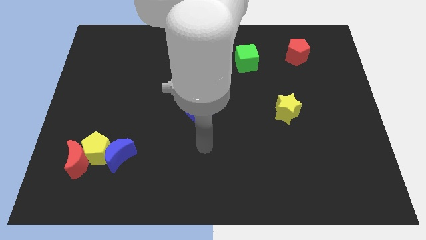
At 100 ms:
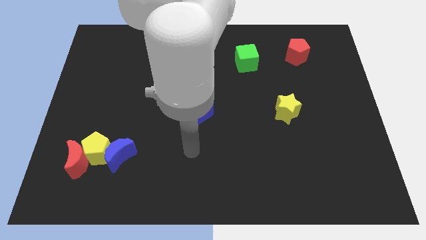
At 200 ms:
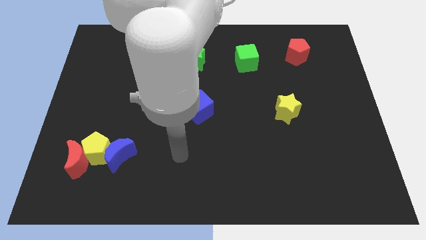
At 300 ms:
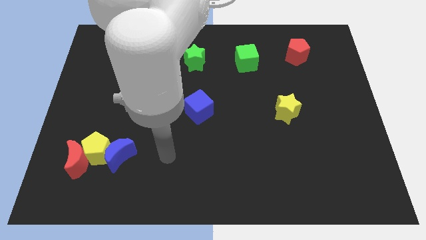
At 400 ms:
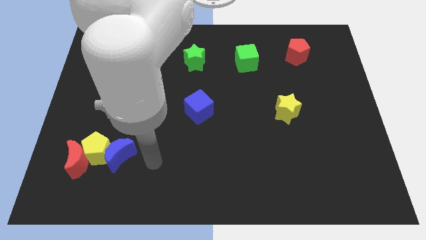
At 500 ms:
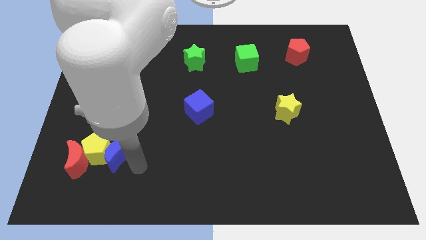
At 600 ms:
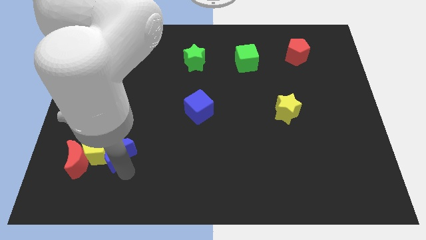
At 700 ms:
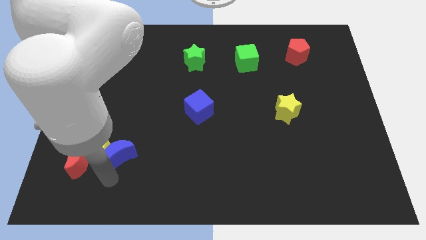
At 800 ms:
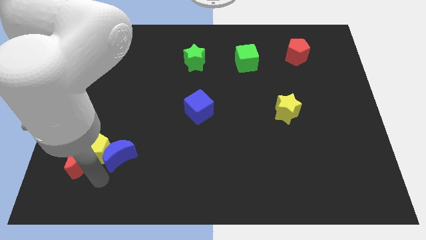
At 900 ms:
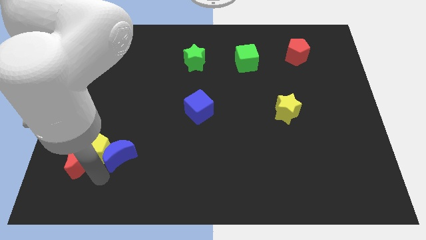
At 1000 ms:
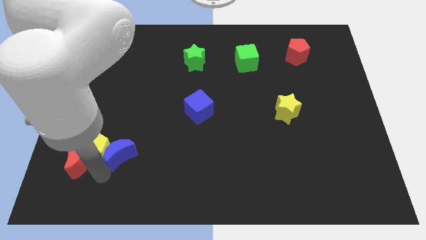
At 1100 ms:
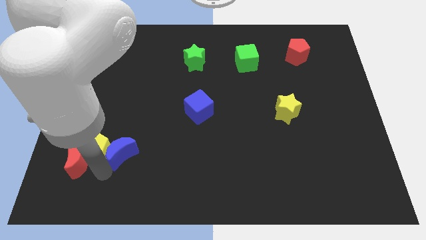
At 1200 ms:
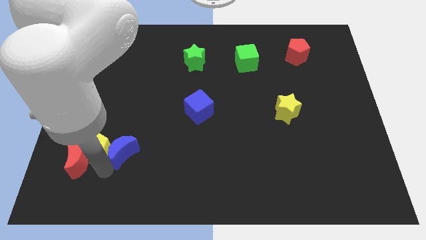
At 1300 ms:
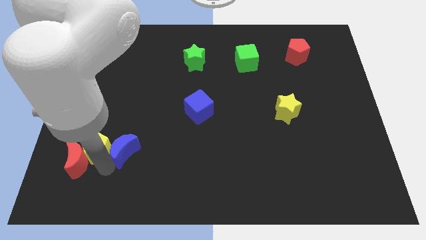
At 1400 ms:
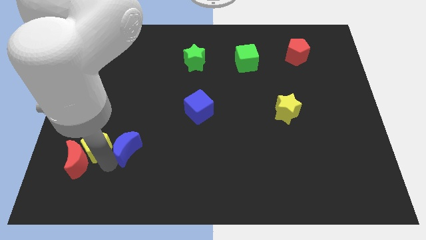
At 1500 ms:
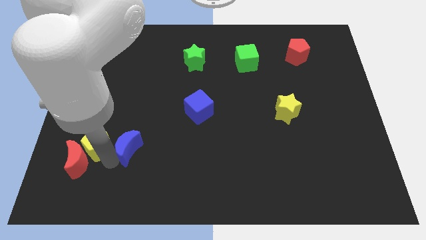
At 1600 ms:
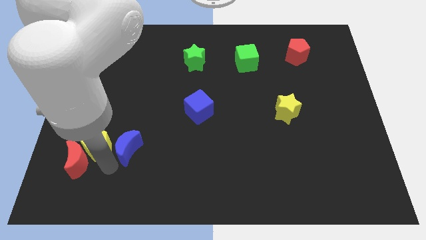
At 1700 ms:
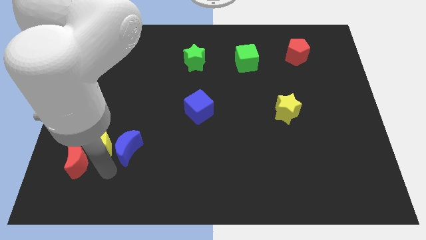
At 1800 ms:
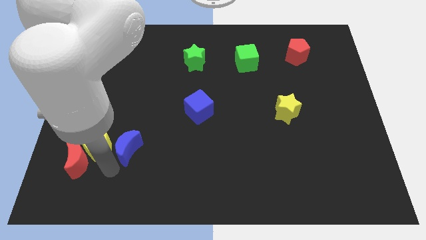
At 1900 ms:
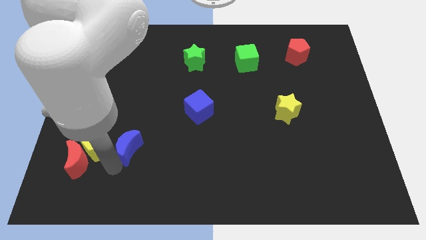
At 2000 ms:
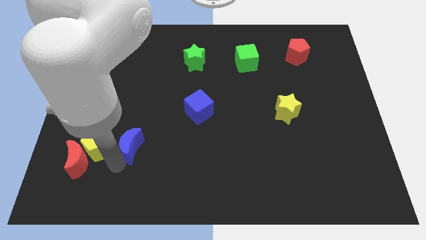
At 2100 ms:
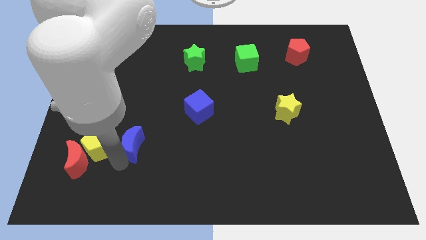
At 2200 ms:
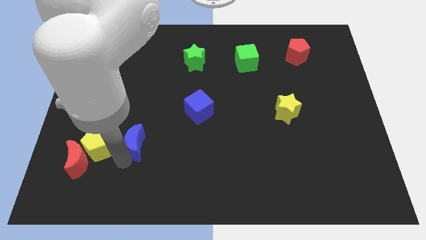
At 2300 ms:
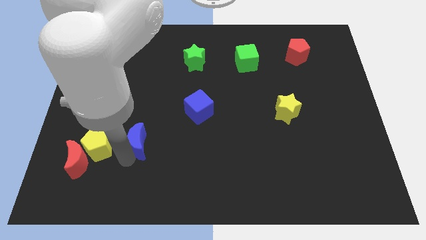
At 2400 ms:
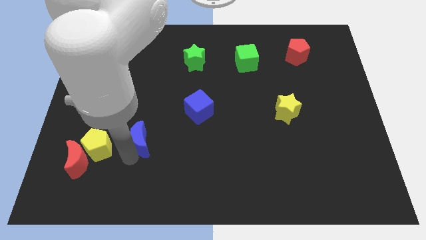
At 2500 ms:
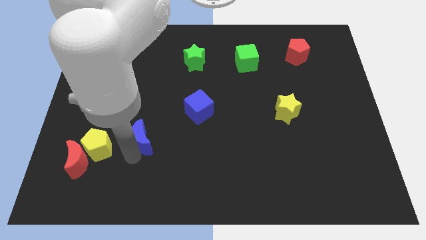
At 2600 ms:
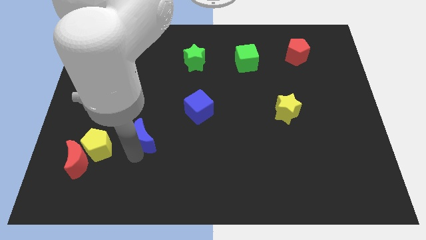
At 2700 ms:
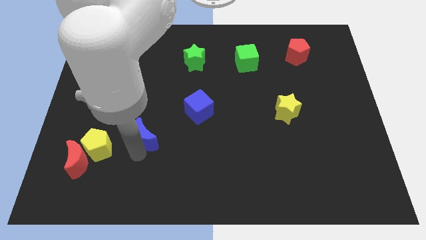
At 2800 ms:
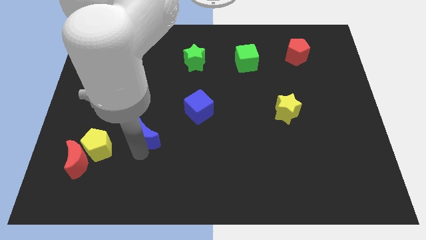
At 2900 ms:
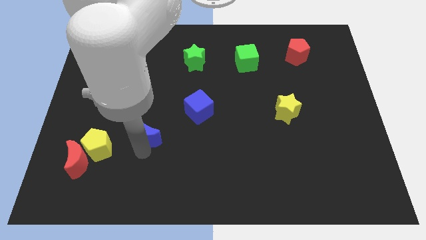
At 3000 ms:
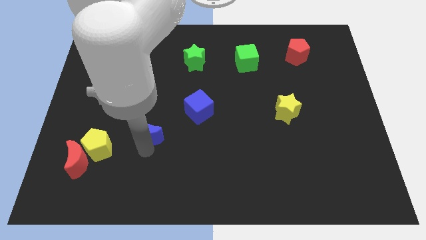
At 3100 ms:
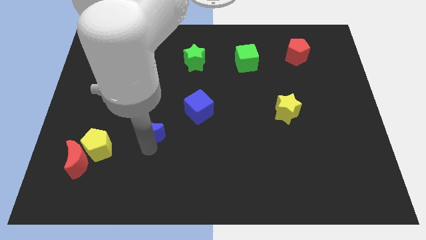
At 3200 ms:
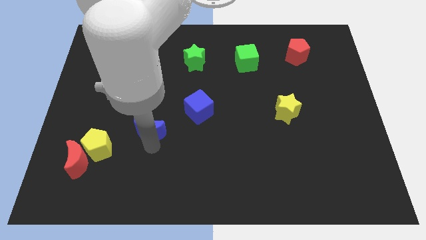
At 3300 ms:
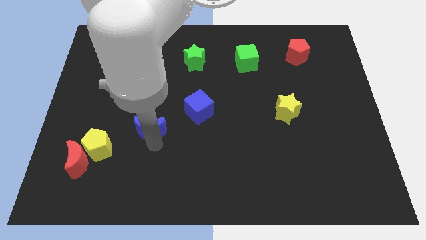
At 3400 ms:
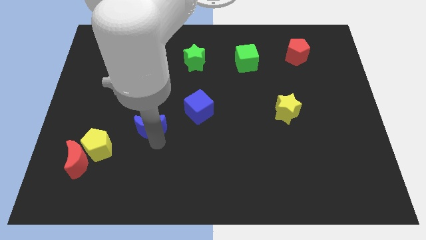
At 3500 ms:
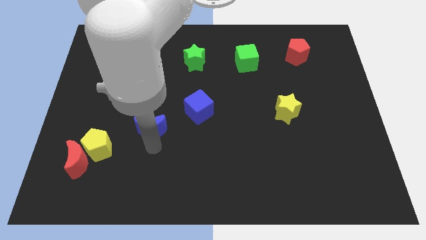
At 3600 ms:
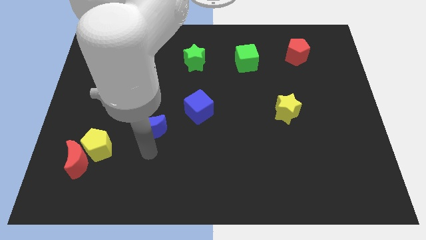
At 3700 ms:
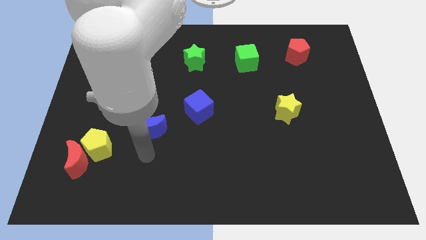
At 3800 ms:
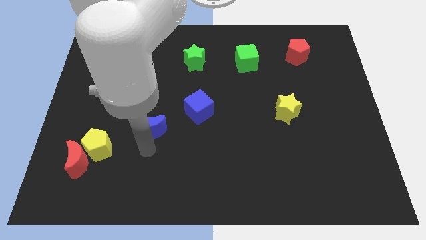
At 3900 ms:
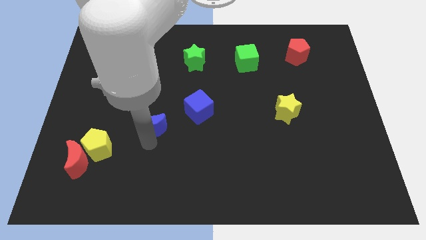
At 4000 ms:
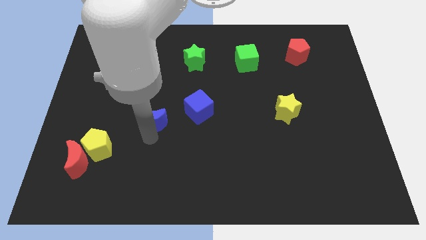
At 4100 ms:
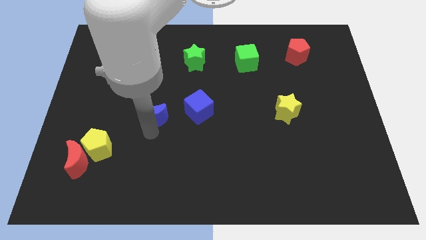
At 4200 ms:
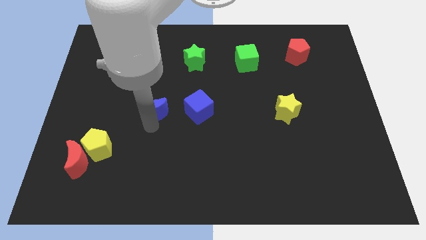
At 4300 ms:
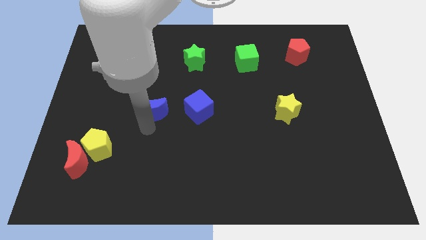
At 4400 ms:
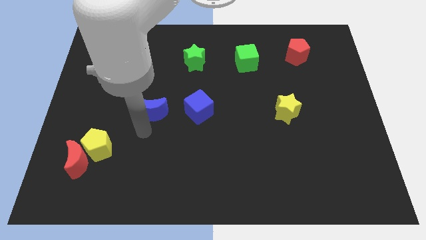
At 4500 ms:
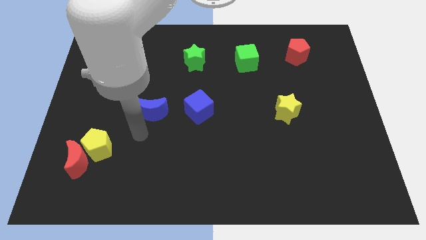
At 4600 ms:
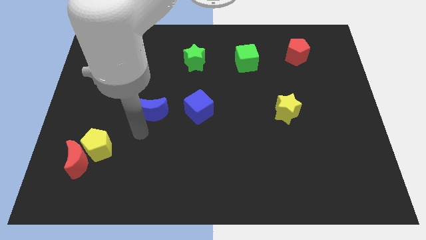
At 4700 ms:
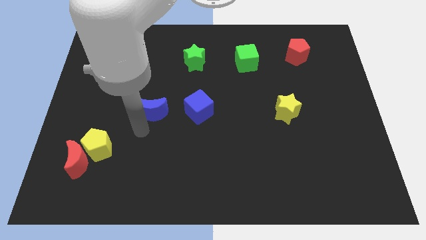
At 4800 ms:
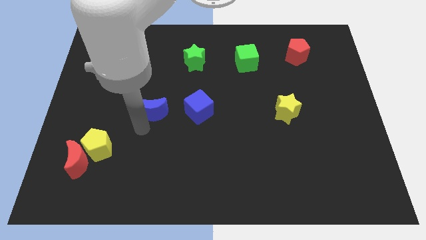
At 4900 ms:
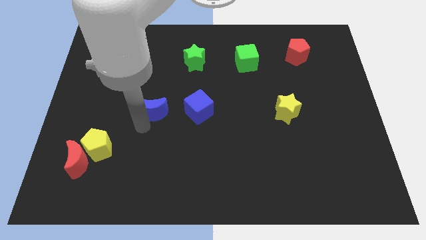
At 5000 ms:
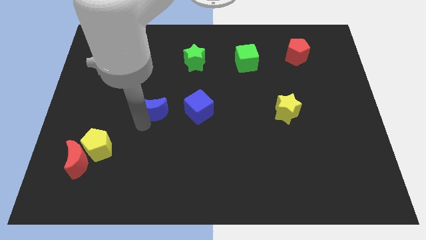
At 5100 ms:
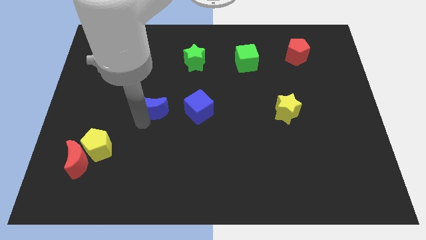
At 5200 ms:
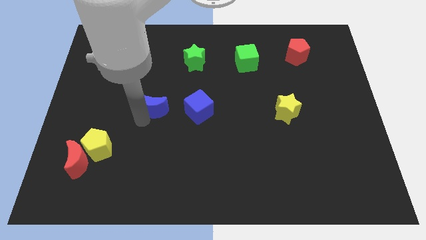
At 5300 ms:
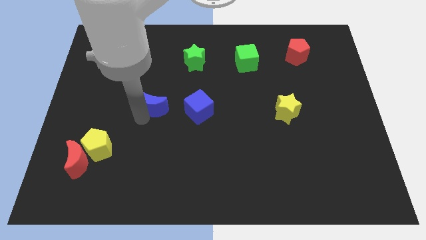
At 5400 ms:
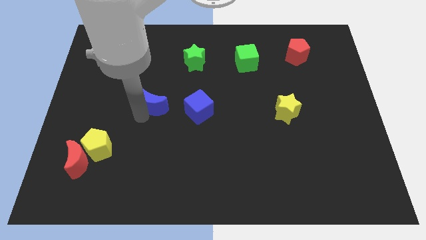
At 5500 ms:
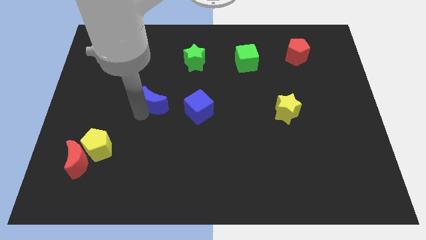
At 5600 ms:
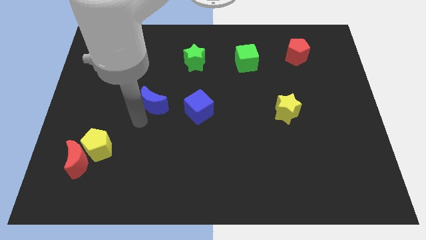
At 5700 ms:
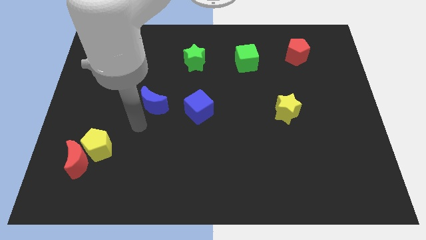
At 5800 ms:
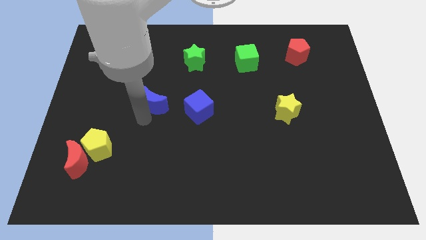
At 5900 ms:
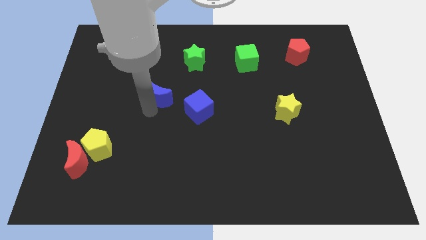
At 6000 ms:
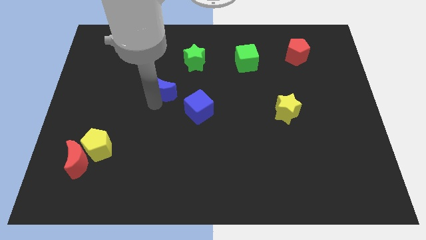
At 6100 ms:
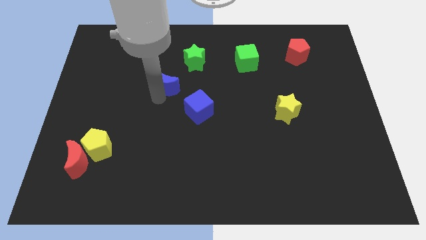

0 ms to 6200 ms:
push the blue moon diagonally down and to the left of the green star

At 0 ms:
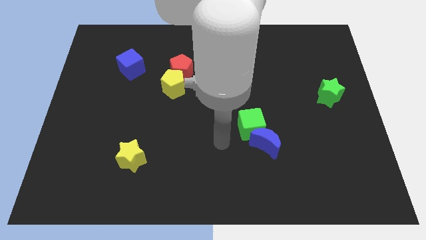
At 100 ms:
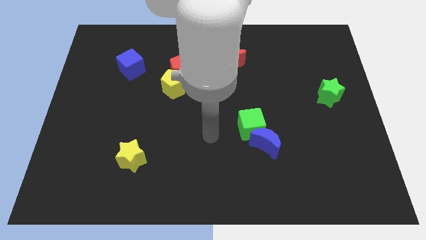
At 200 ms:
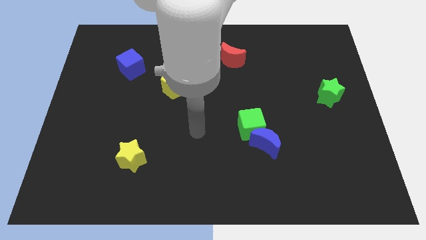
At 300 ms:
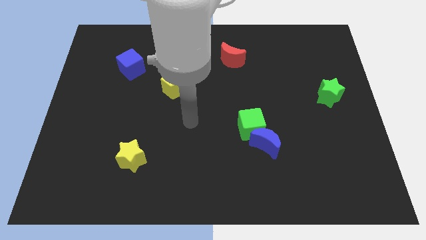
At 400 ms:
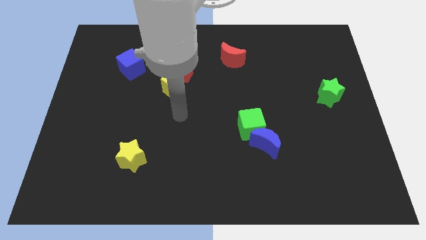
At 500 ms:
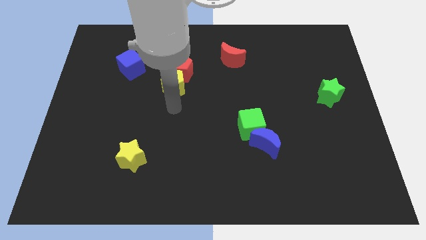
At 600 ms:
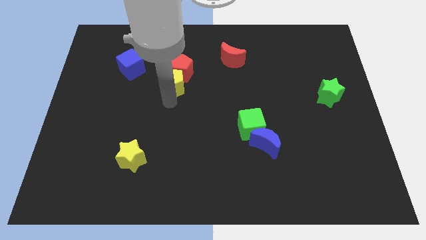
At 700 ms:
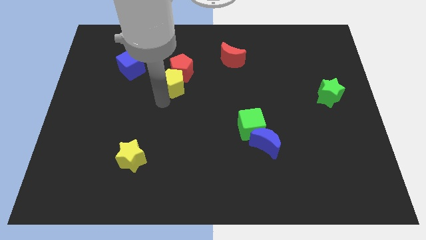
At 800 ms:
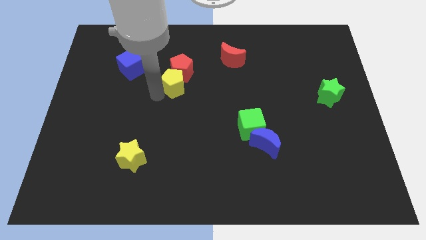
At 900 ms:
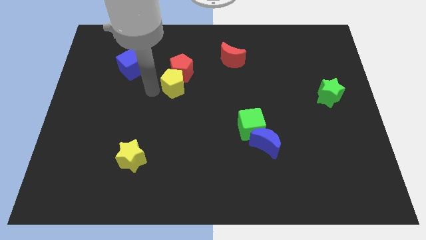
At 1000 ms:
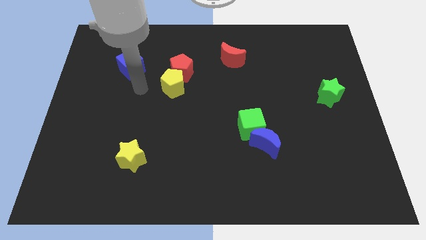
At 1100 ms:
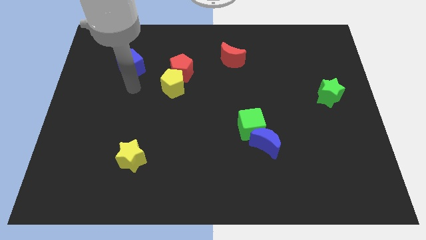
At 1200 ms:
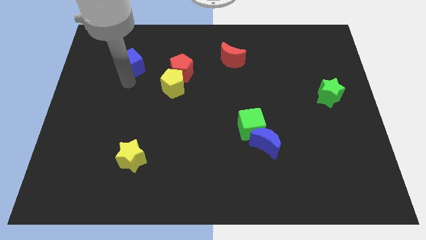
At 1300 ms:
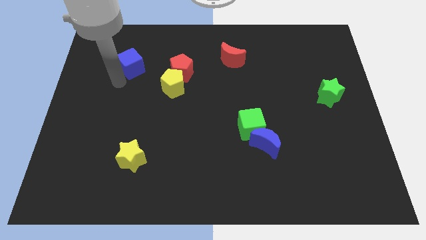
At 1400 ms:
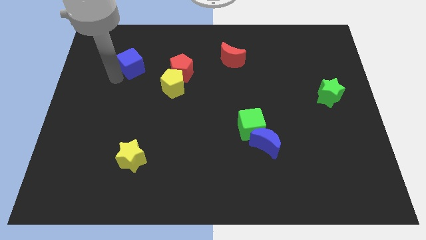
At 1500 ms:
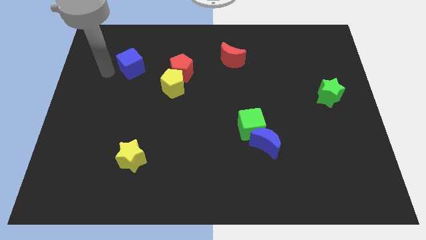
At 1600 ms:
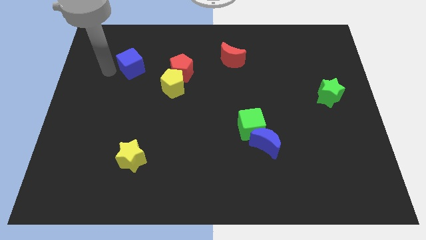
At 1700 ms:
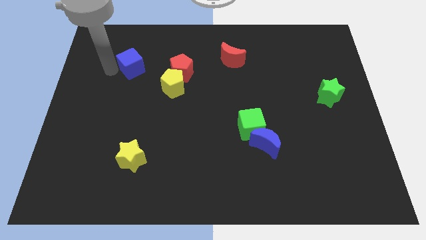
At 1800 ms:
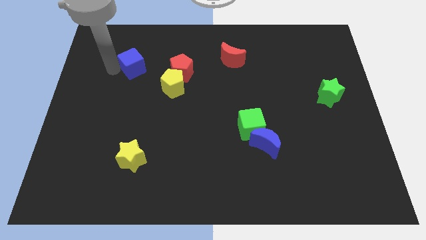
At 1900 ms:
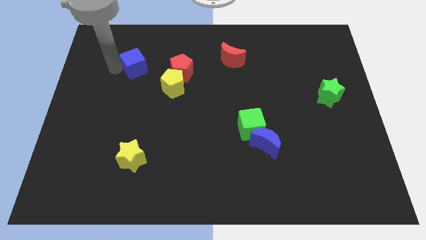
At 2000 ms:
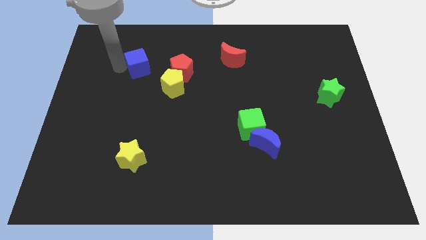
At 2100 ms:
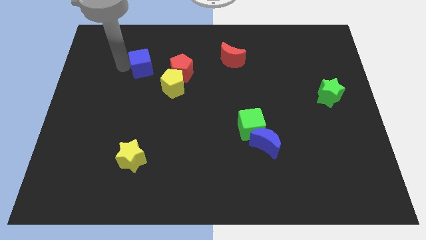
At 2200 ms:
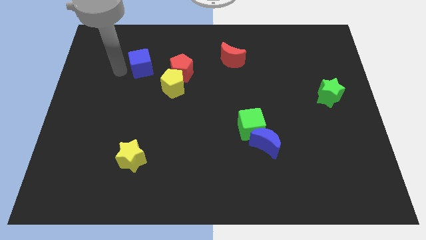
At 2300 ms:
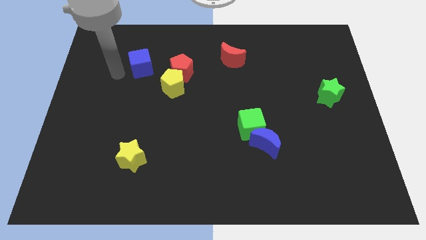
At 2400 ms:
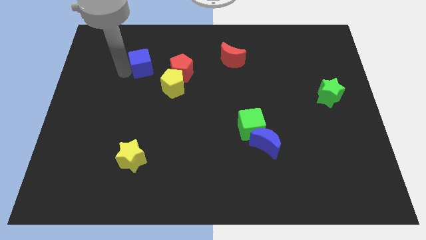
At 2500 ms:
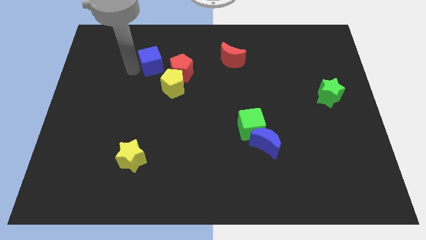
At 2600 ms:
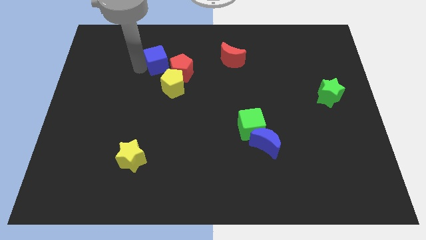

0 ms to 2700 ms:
move the blue cube above the yellow pentagon
